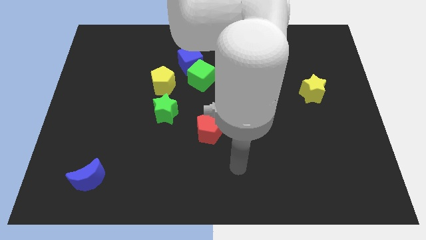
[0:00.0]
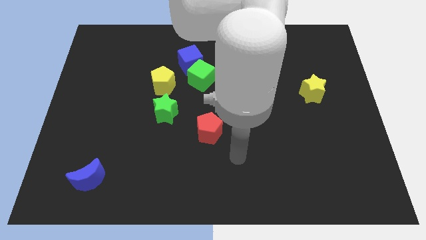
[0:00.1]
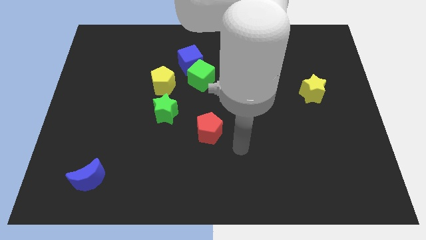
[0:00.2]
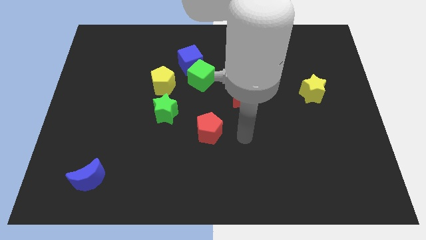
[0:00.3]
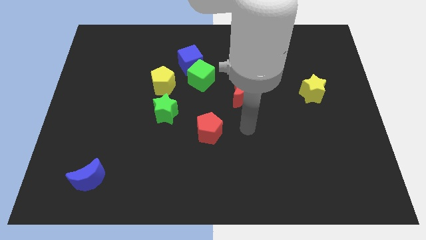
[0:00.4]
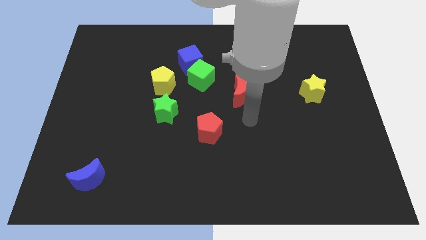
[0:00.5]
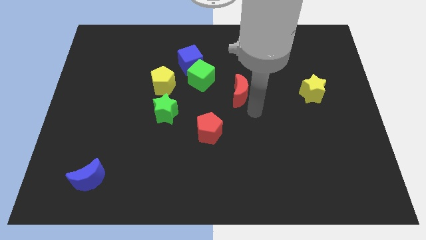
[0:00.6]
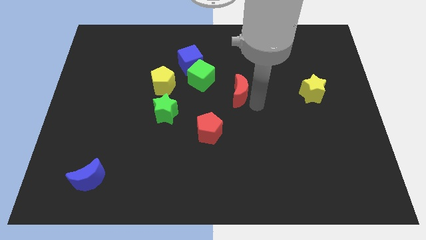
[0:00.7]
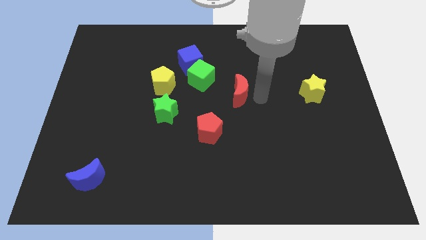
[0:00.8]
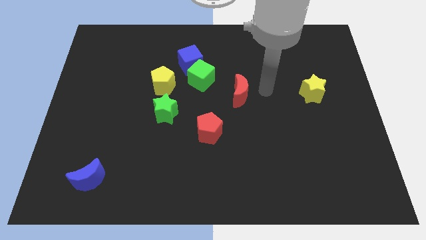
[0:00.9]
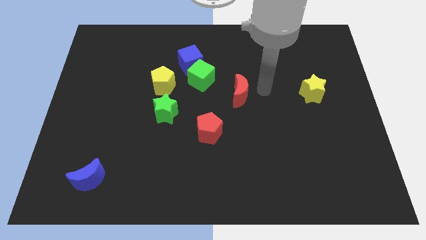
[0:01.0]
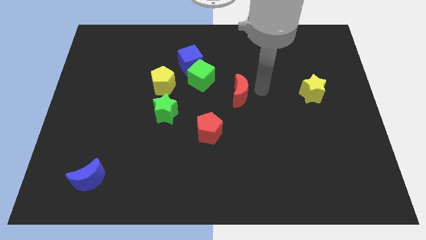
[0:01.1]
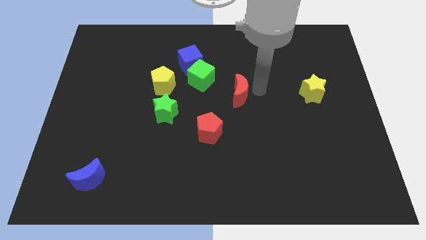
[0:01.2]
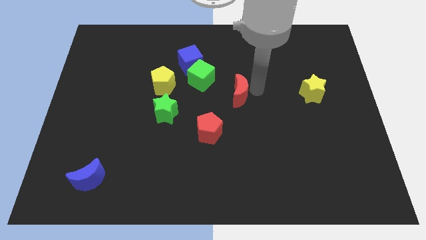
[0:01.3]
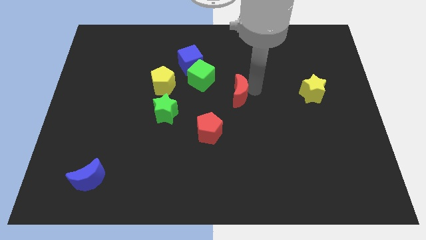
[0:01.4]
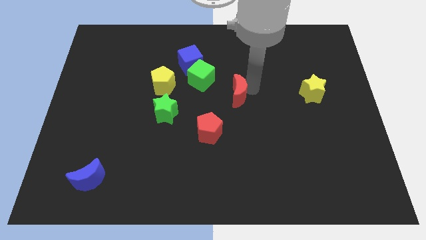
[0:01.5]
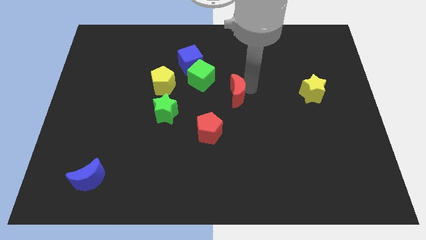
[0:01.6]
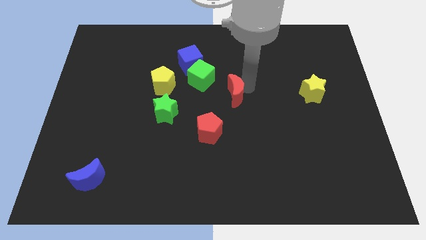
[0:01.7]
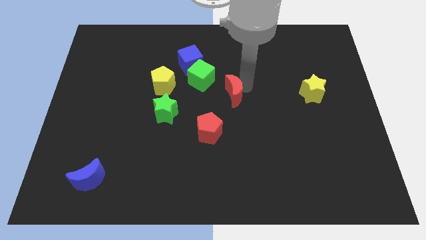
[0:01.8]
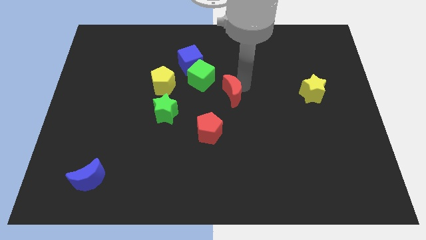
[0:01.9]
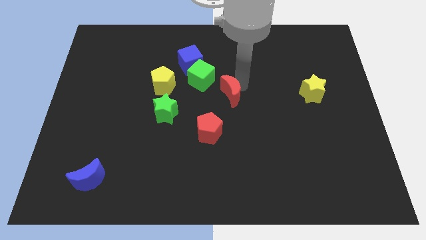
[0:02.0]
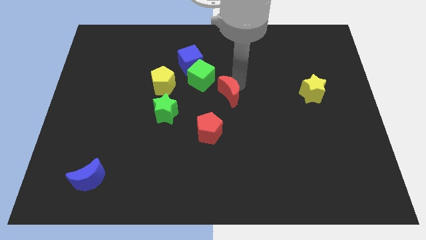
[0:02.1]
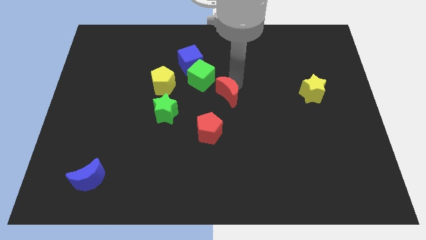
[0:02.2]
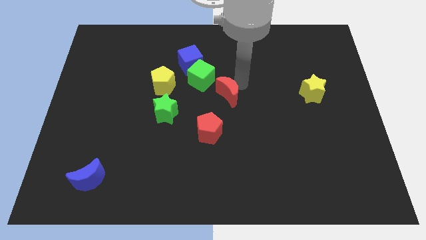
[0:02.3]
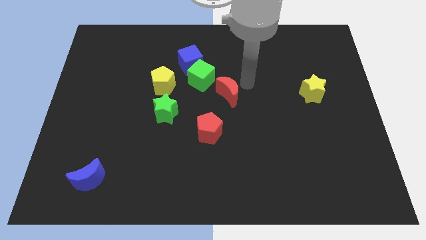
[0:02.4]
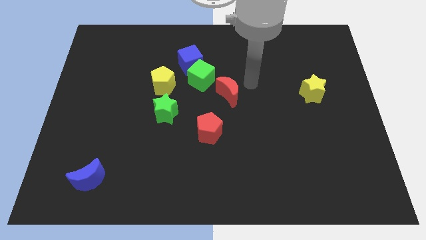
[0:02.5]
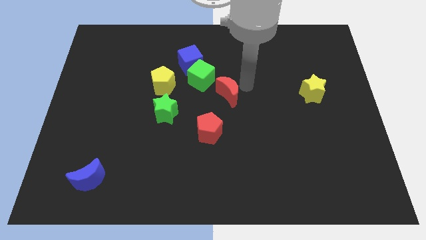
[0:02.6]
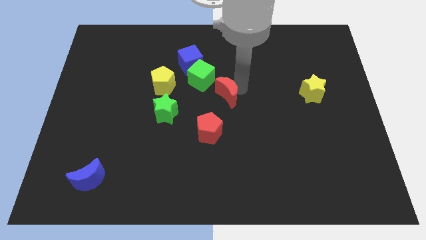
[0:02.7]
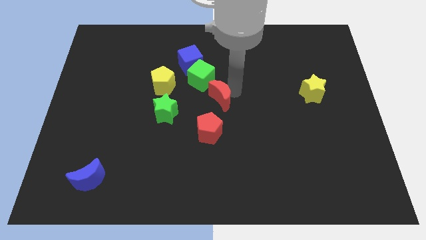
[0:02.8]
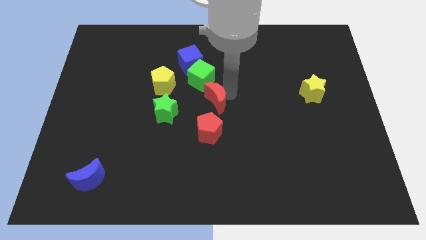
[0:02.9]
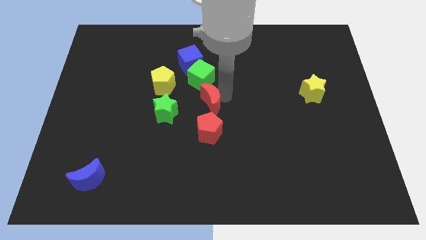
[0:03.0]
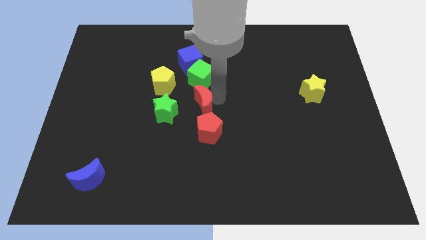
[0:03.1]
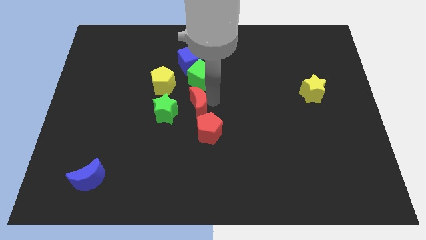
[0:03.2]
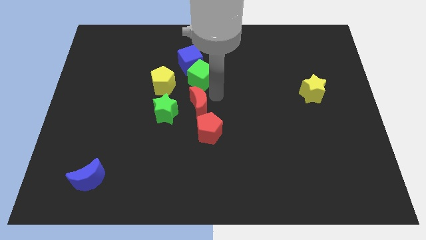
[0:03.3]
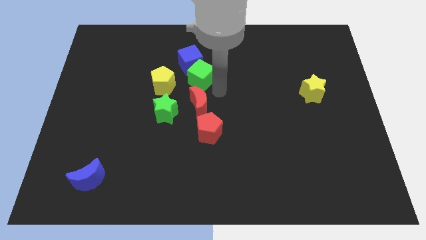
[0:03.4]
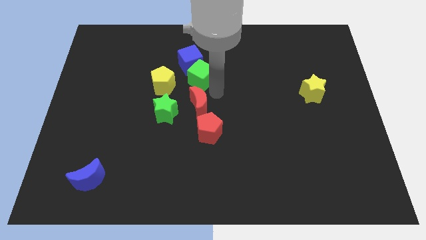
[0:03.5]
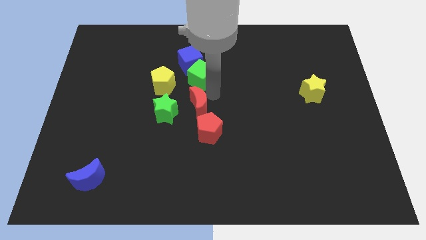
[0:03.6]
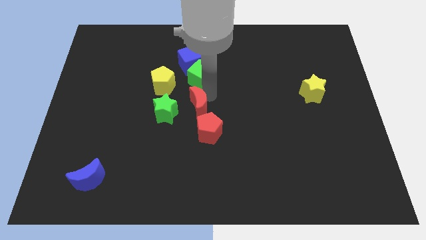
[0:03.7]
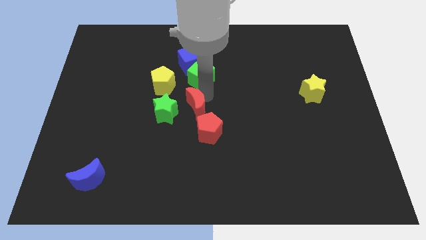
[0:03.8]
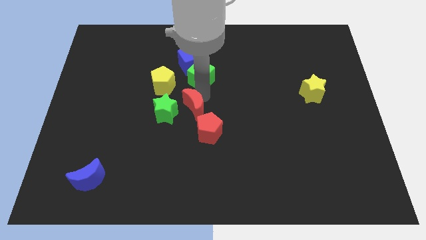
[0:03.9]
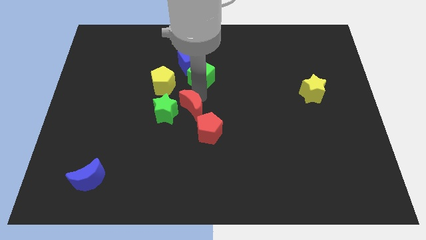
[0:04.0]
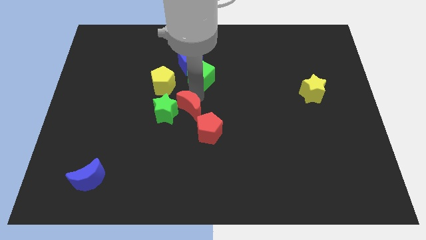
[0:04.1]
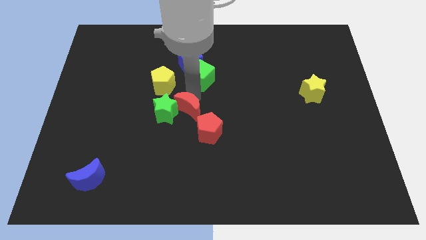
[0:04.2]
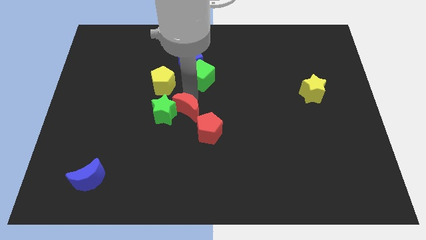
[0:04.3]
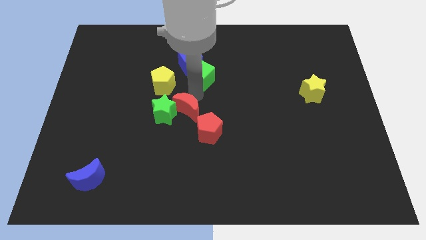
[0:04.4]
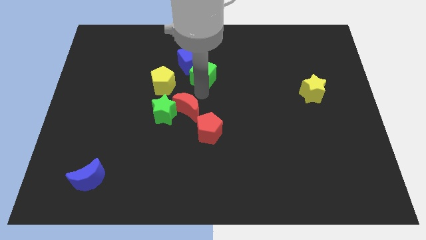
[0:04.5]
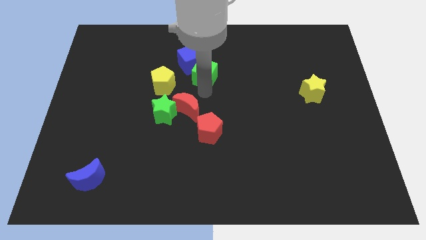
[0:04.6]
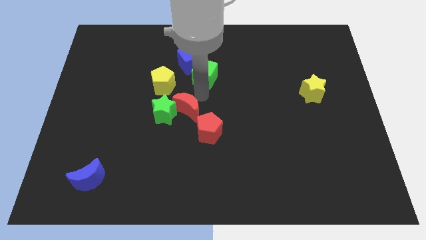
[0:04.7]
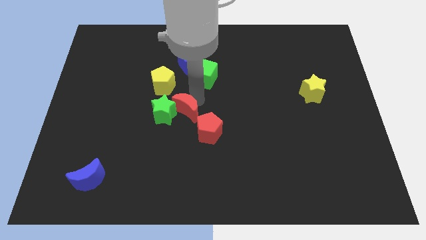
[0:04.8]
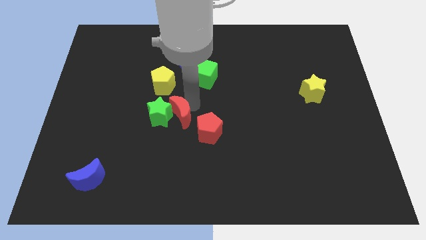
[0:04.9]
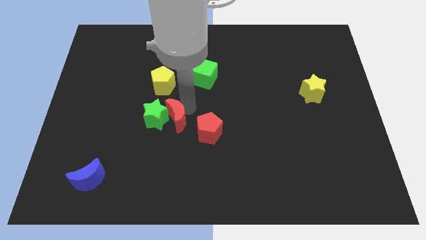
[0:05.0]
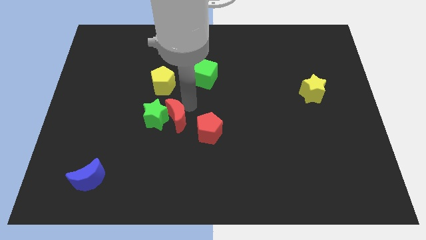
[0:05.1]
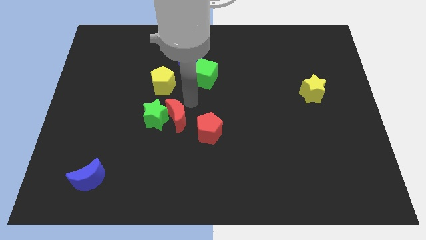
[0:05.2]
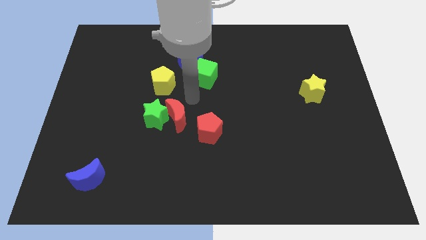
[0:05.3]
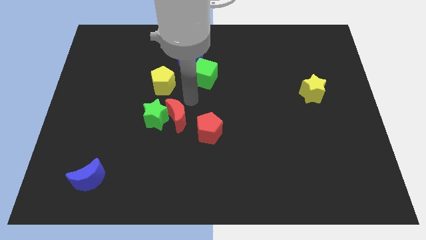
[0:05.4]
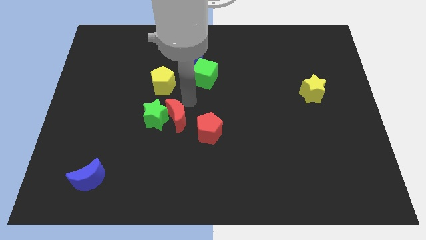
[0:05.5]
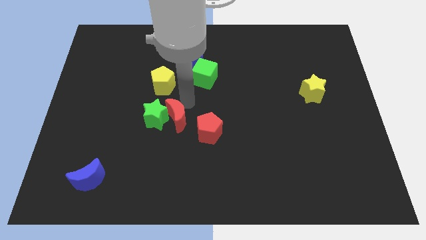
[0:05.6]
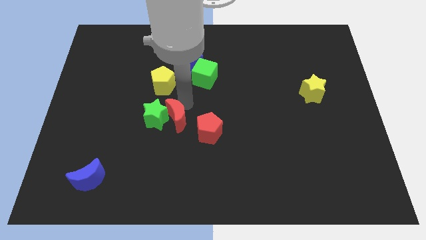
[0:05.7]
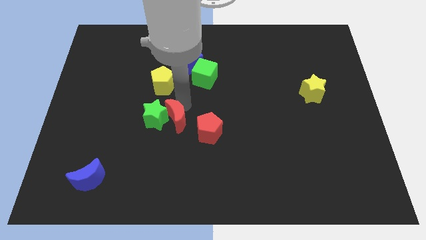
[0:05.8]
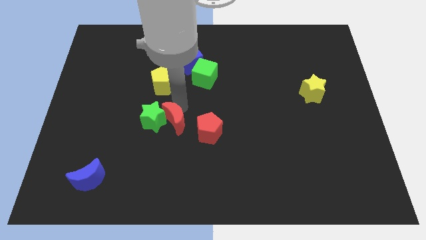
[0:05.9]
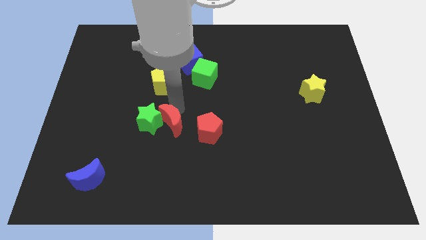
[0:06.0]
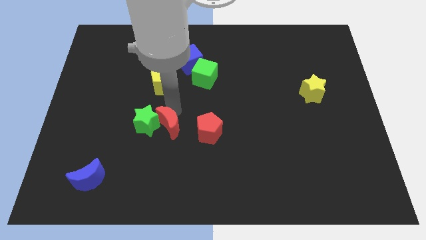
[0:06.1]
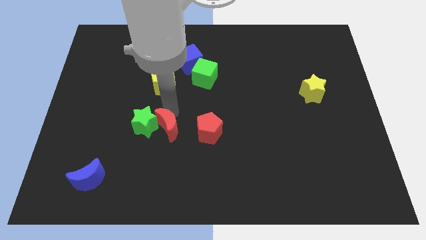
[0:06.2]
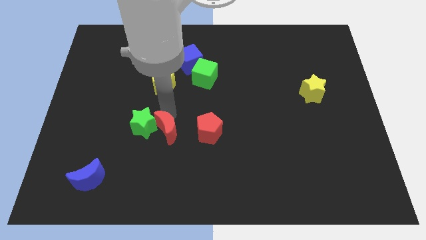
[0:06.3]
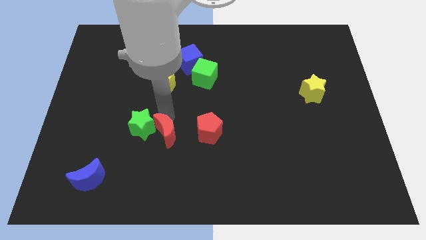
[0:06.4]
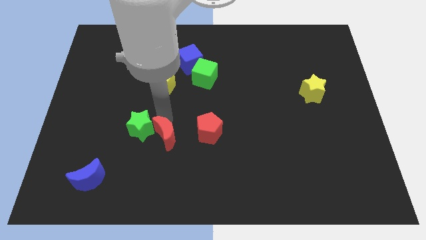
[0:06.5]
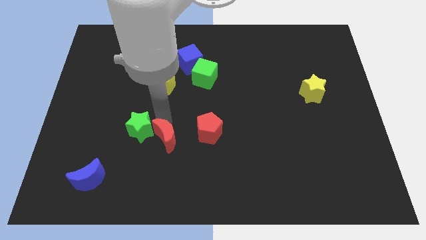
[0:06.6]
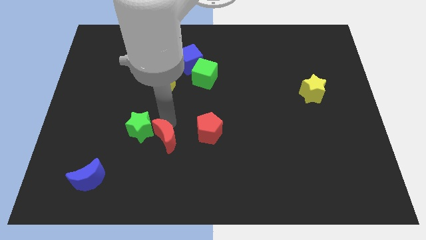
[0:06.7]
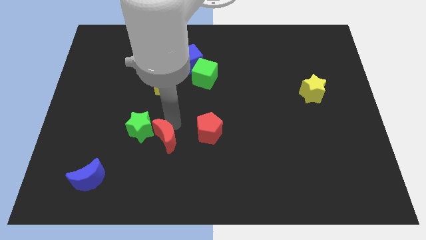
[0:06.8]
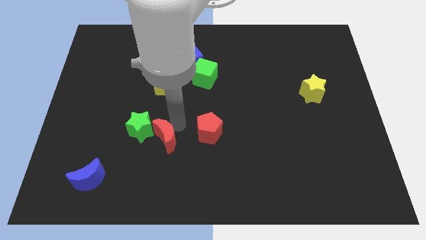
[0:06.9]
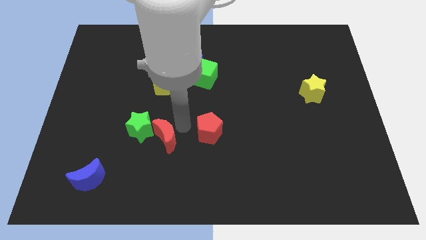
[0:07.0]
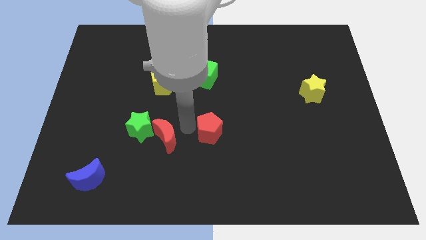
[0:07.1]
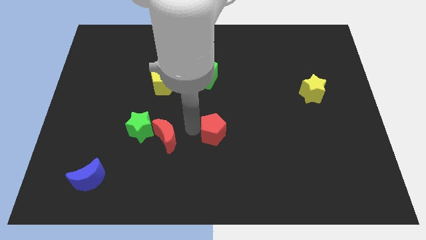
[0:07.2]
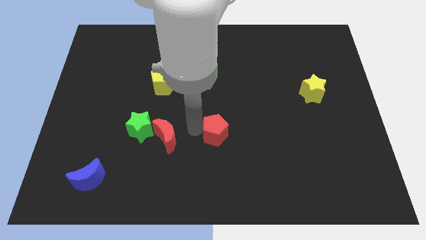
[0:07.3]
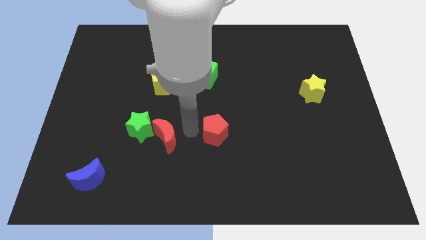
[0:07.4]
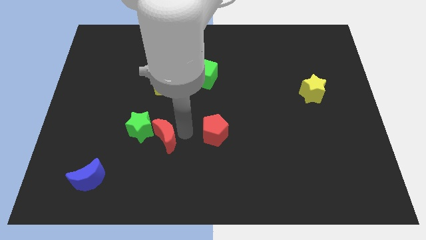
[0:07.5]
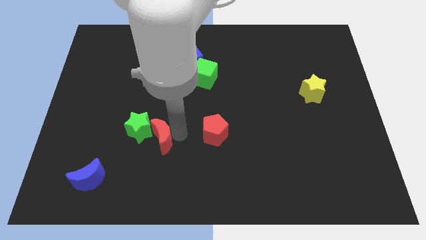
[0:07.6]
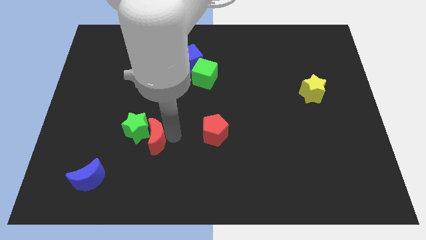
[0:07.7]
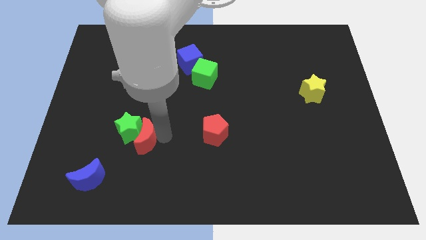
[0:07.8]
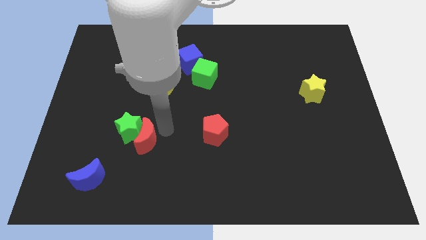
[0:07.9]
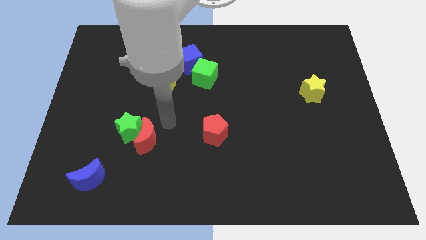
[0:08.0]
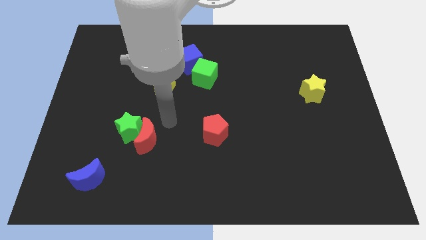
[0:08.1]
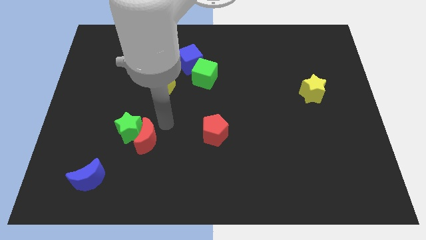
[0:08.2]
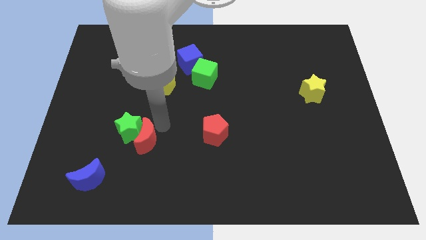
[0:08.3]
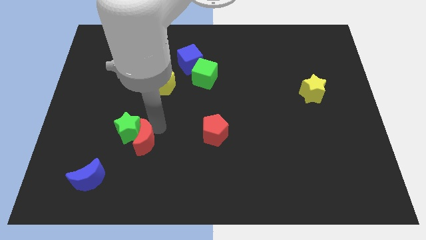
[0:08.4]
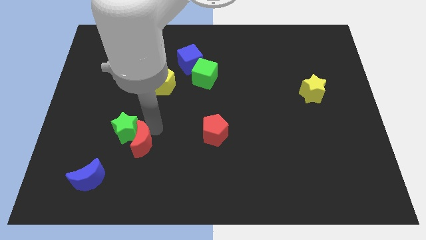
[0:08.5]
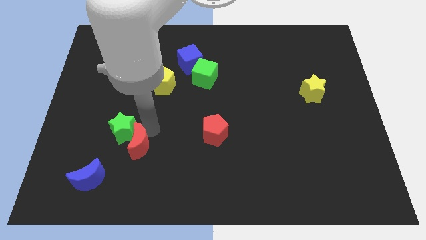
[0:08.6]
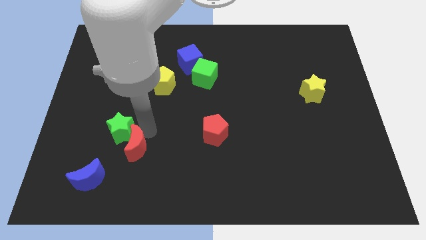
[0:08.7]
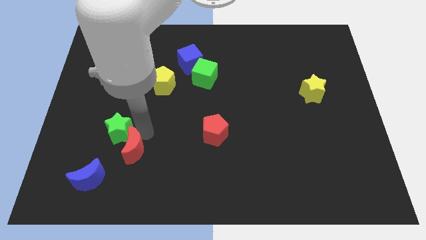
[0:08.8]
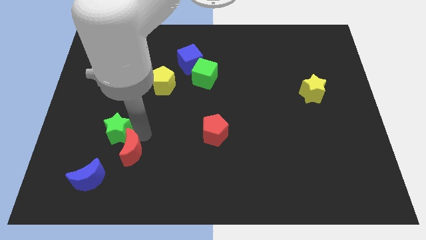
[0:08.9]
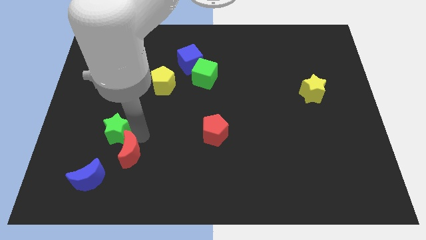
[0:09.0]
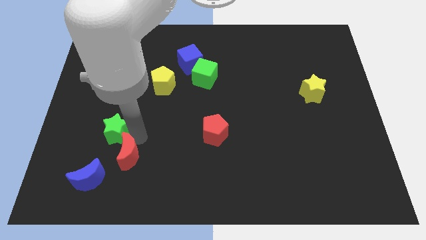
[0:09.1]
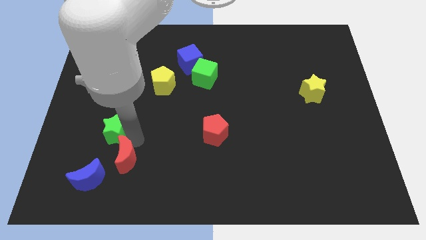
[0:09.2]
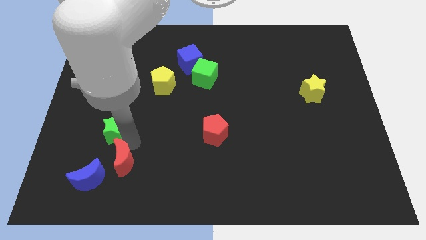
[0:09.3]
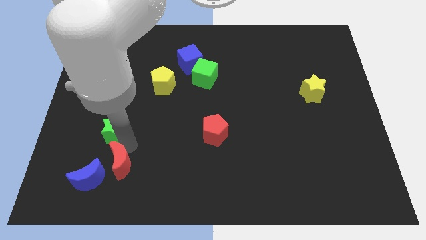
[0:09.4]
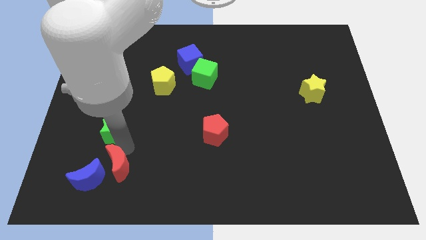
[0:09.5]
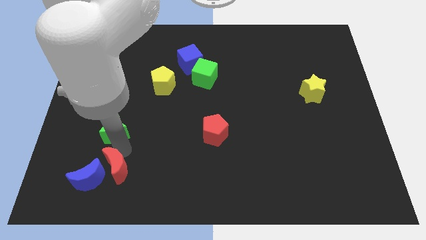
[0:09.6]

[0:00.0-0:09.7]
push the red moon next to the blue moon
